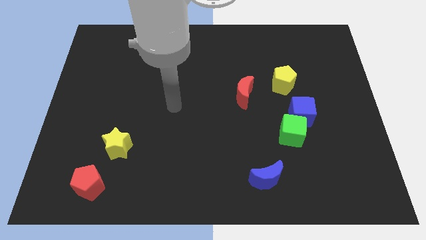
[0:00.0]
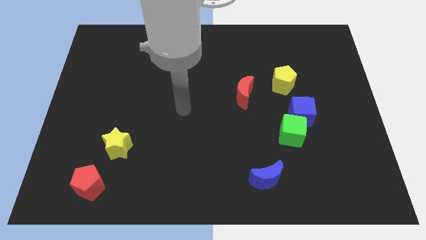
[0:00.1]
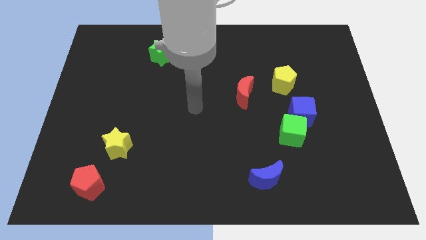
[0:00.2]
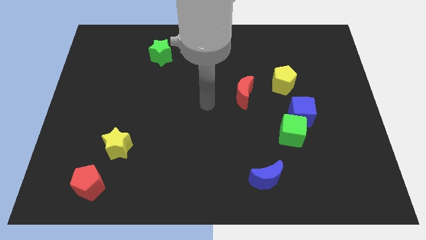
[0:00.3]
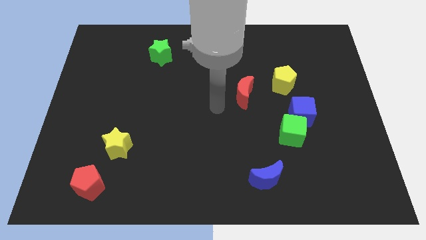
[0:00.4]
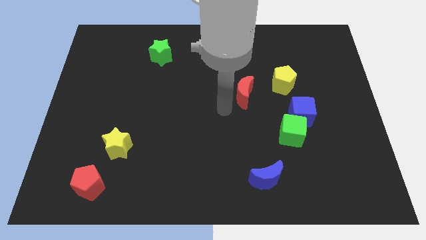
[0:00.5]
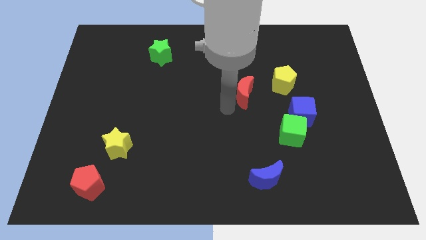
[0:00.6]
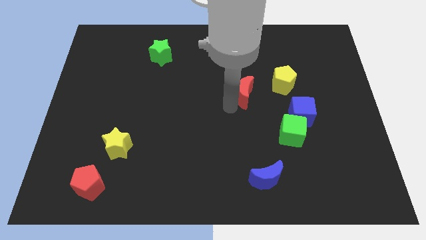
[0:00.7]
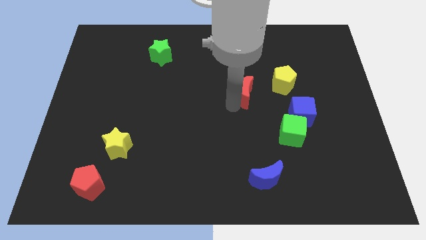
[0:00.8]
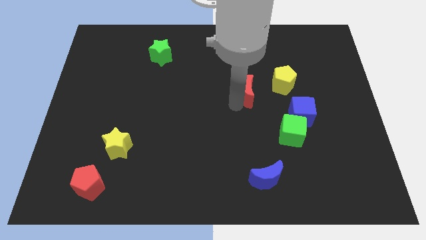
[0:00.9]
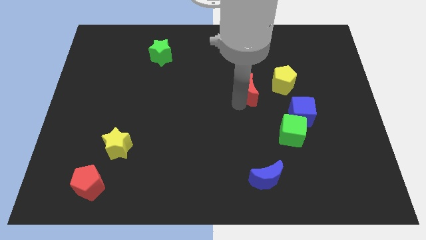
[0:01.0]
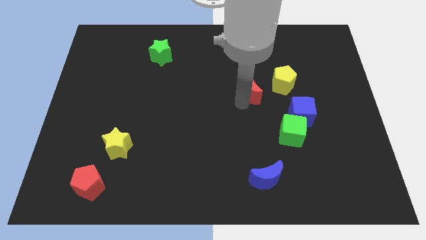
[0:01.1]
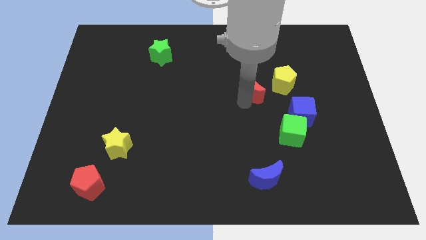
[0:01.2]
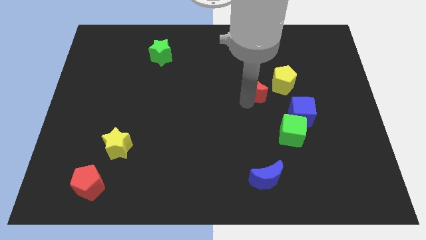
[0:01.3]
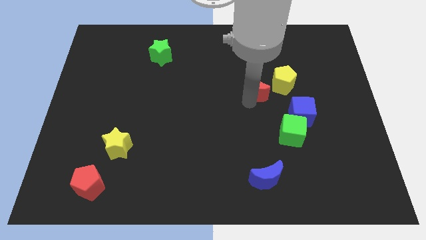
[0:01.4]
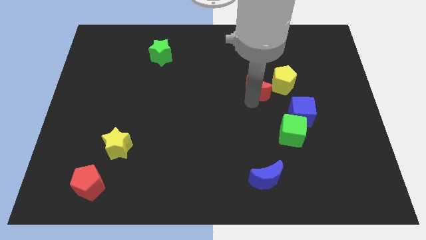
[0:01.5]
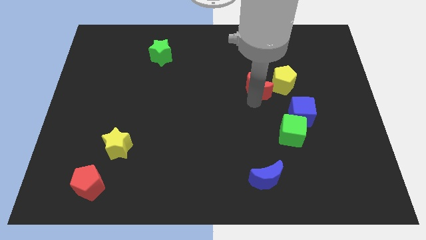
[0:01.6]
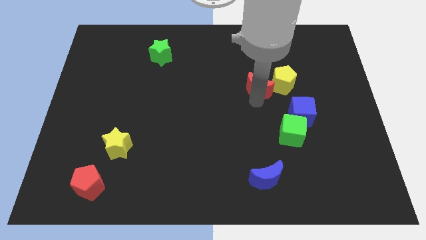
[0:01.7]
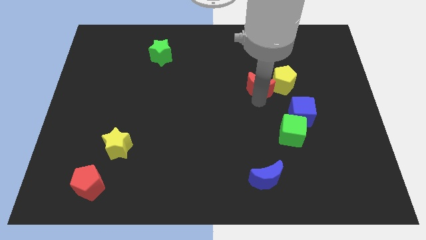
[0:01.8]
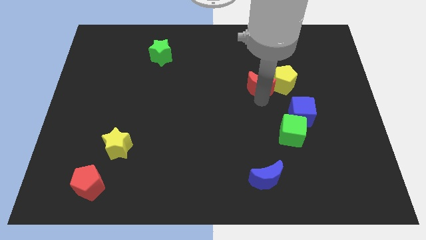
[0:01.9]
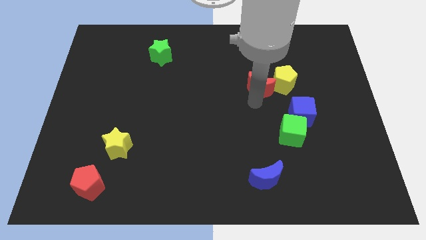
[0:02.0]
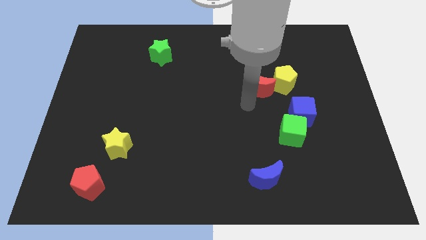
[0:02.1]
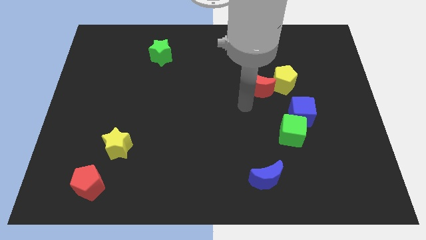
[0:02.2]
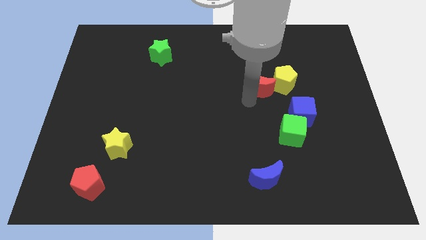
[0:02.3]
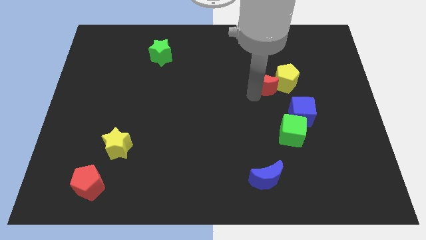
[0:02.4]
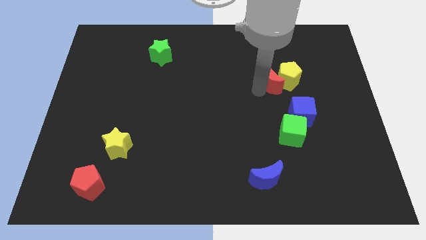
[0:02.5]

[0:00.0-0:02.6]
push the red moon somewhat diagonally up and to the right

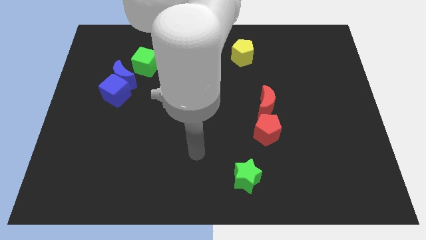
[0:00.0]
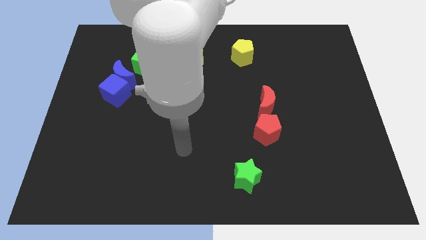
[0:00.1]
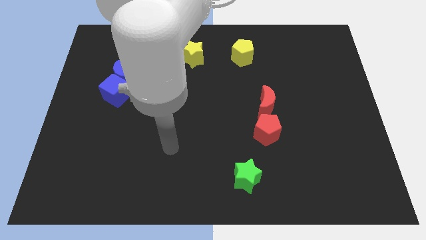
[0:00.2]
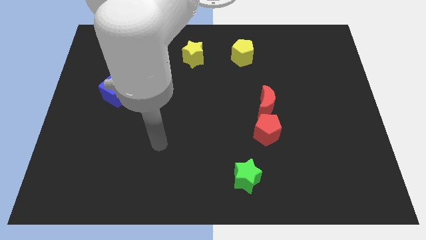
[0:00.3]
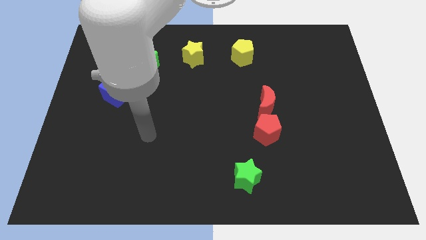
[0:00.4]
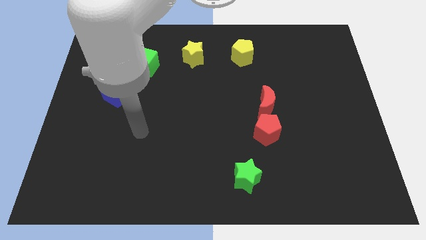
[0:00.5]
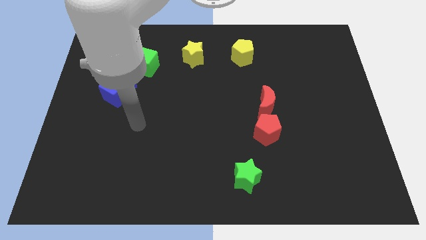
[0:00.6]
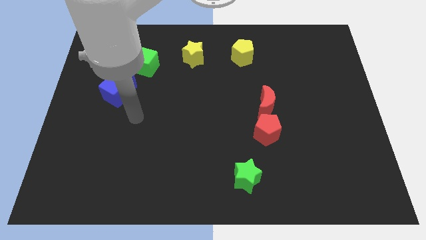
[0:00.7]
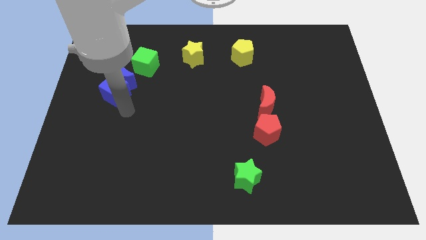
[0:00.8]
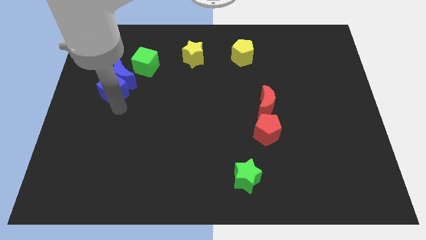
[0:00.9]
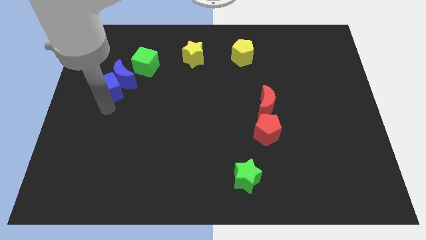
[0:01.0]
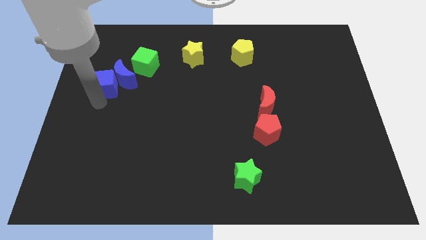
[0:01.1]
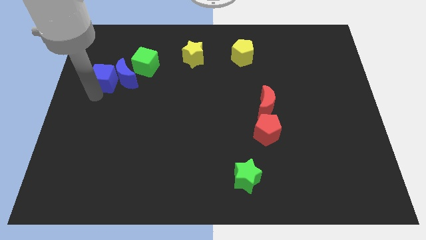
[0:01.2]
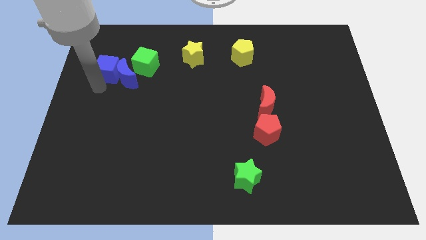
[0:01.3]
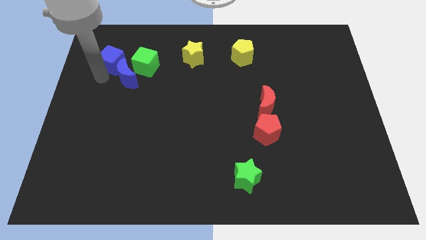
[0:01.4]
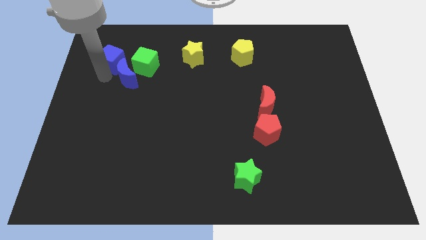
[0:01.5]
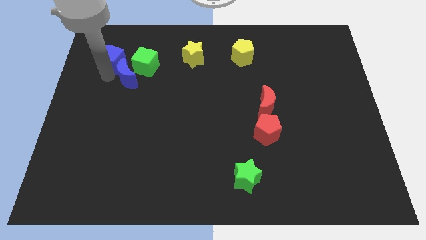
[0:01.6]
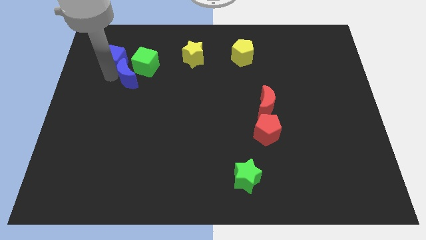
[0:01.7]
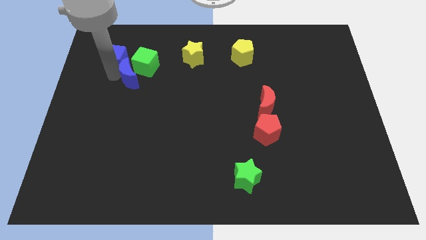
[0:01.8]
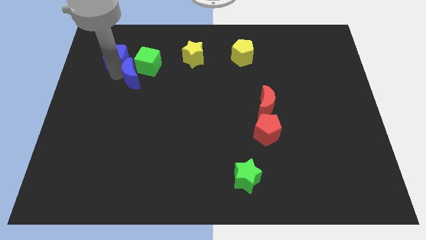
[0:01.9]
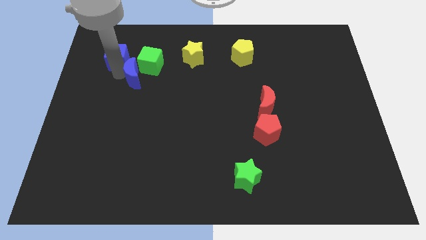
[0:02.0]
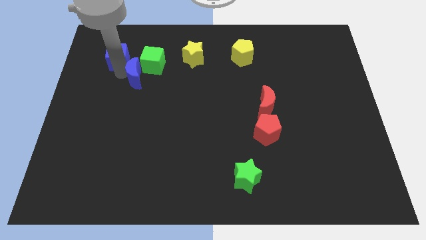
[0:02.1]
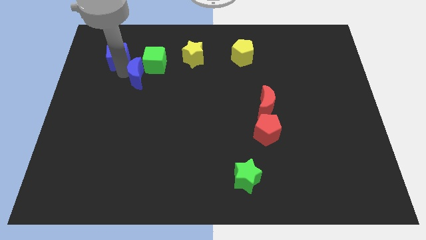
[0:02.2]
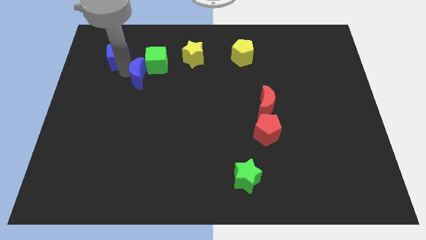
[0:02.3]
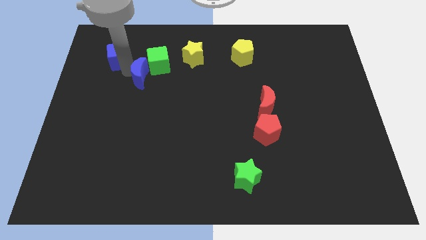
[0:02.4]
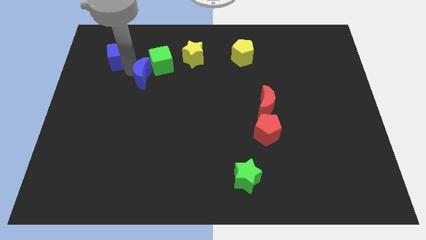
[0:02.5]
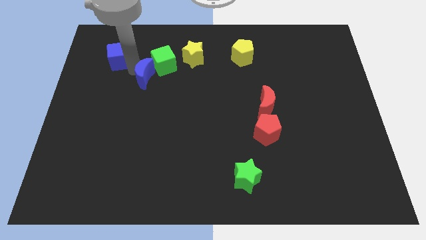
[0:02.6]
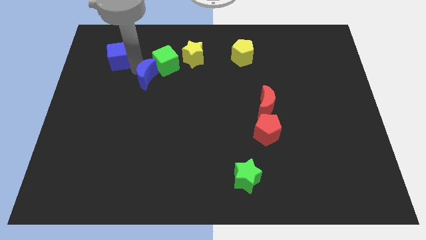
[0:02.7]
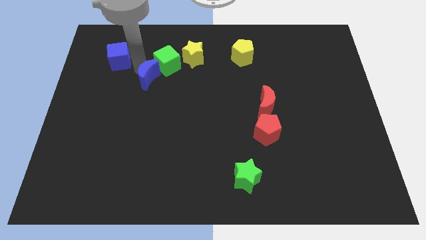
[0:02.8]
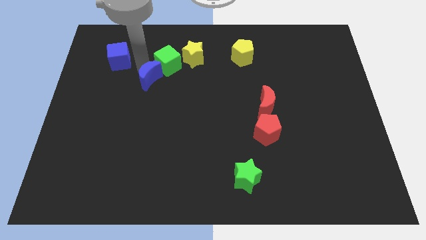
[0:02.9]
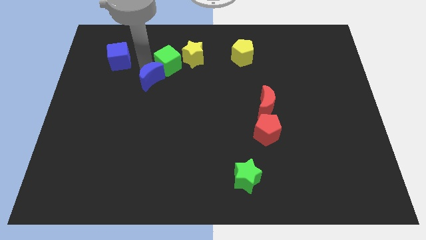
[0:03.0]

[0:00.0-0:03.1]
slightly push the blue moon to the right

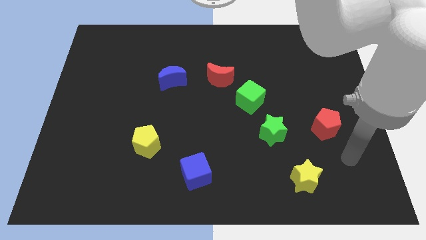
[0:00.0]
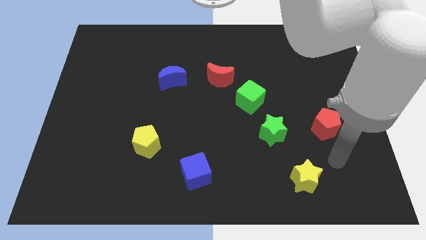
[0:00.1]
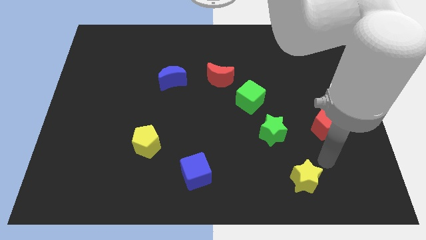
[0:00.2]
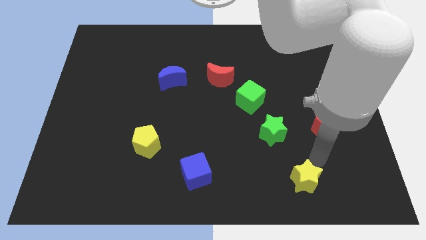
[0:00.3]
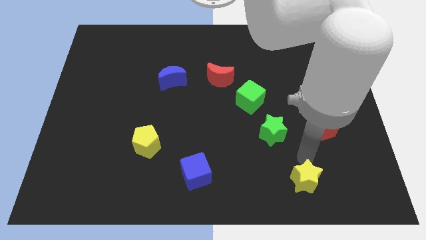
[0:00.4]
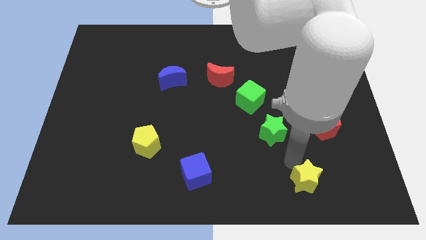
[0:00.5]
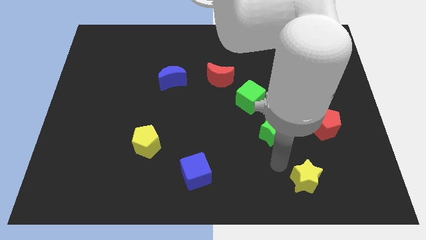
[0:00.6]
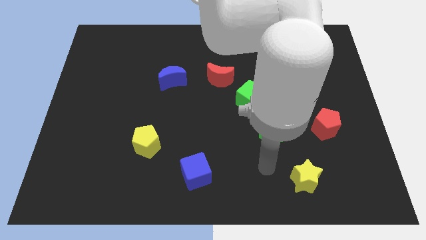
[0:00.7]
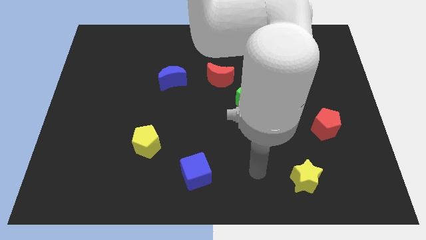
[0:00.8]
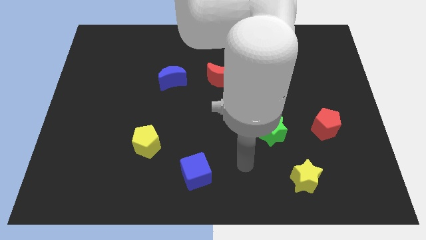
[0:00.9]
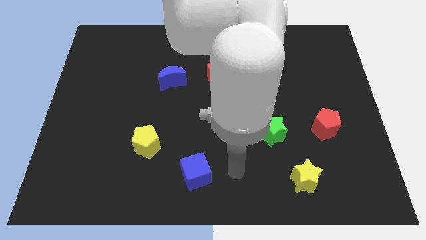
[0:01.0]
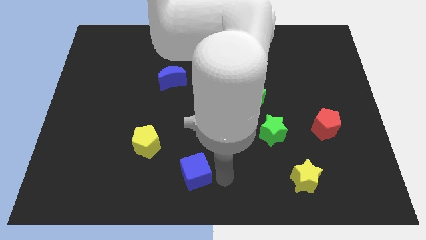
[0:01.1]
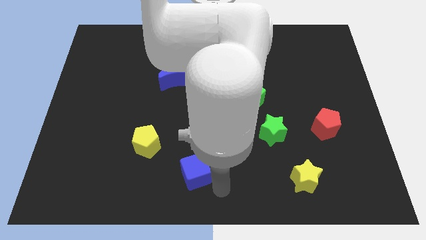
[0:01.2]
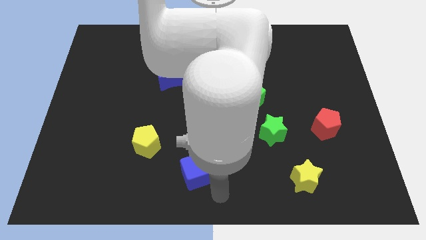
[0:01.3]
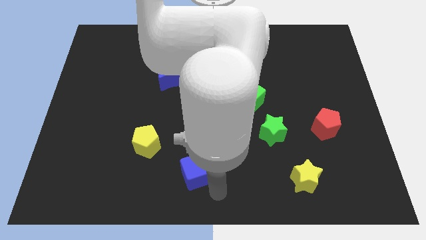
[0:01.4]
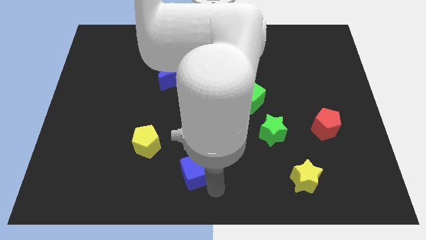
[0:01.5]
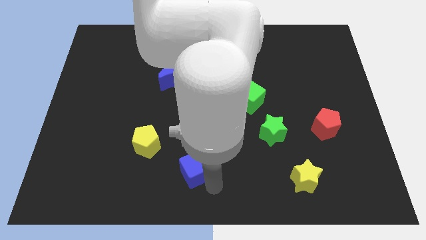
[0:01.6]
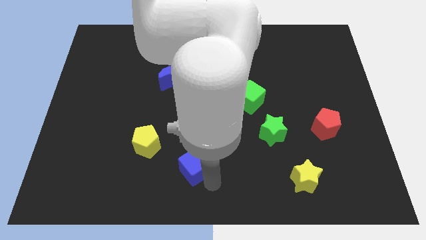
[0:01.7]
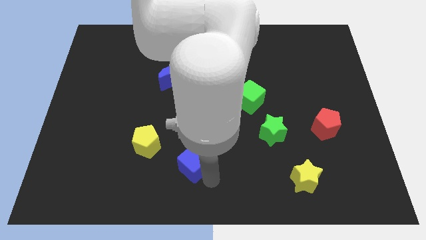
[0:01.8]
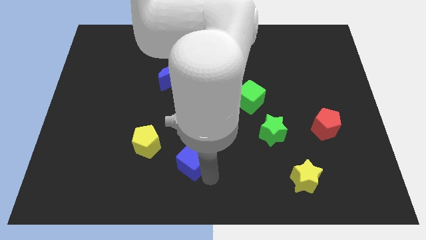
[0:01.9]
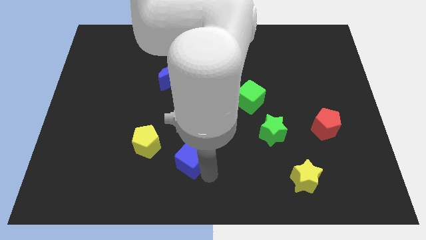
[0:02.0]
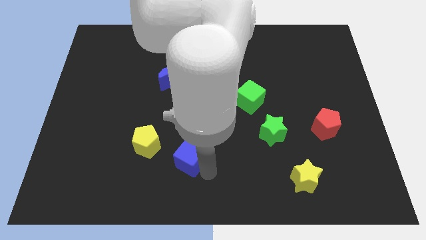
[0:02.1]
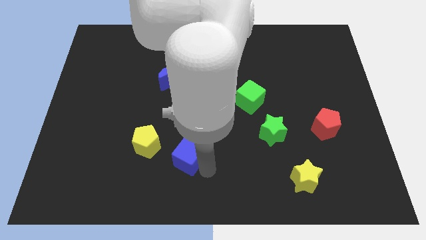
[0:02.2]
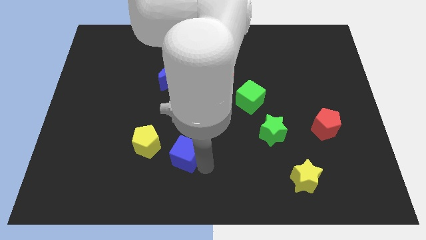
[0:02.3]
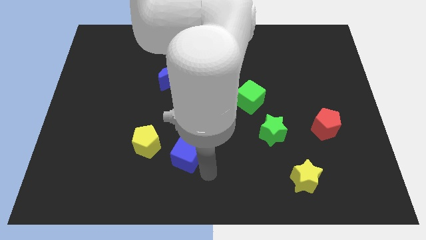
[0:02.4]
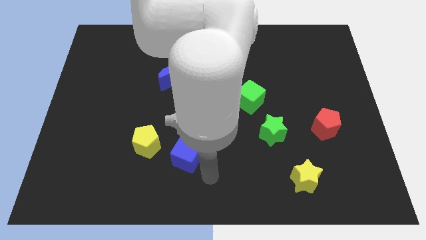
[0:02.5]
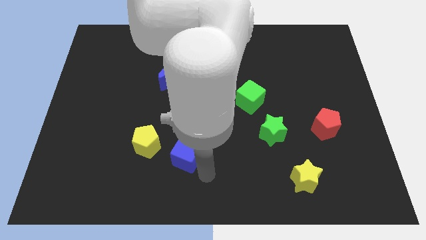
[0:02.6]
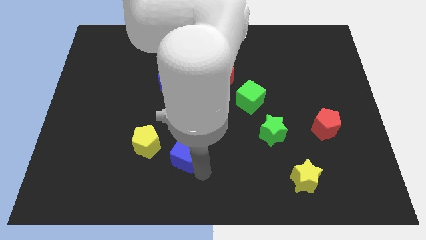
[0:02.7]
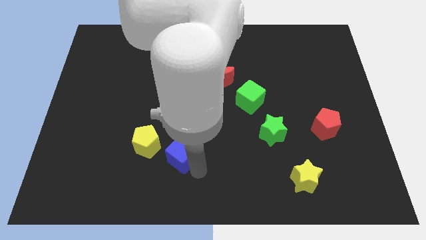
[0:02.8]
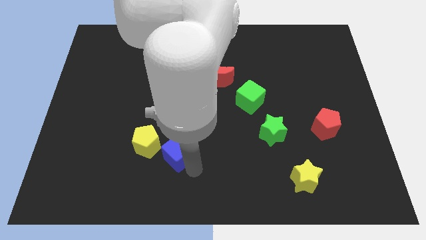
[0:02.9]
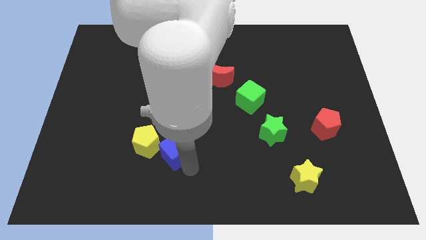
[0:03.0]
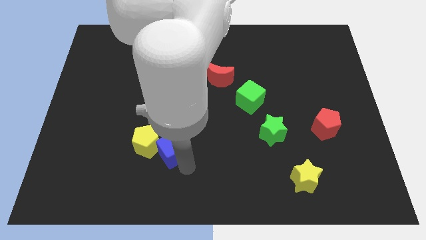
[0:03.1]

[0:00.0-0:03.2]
push the blue cube somewhat upwards and left
